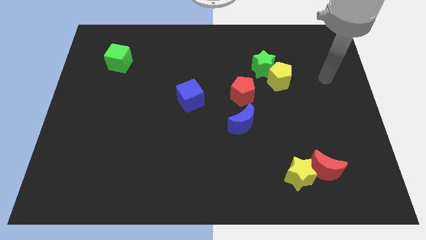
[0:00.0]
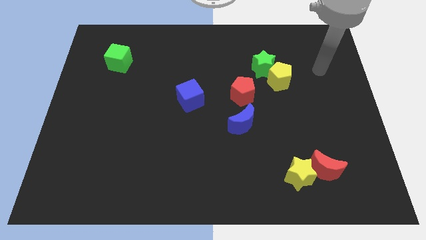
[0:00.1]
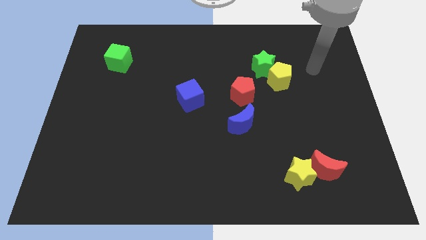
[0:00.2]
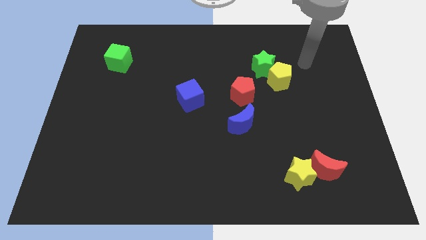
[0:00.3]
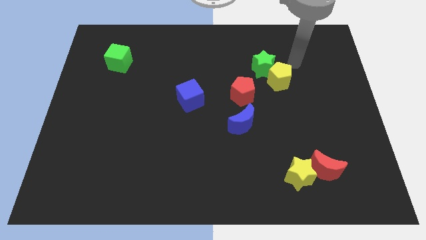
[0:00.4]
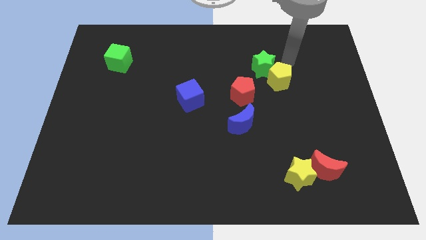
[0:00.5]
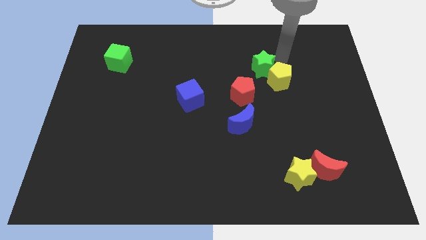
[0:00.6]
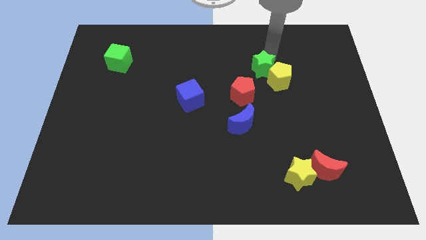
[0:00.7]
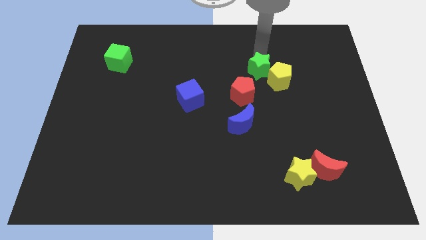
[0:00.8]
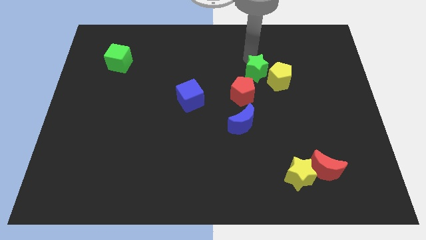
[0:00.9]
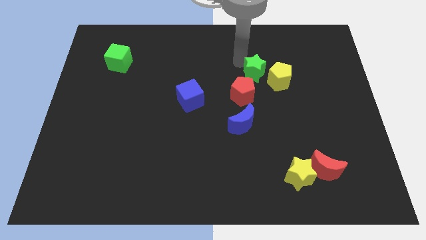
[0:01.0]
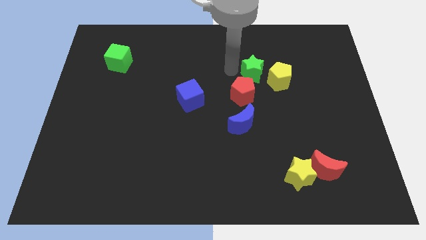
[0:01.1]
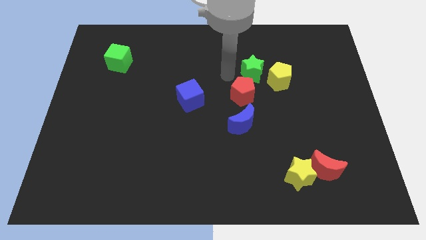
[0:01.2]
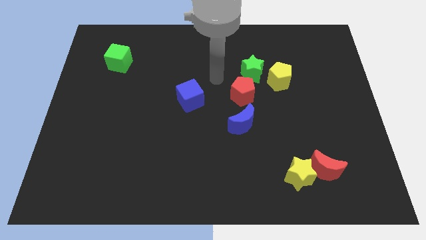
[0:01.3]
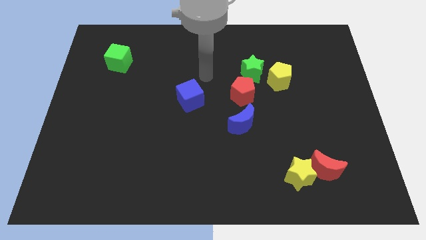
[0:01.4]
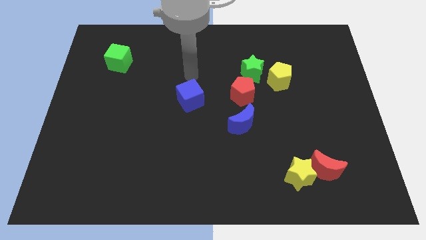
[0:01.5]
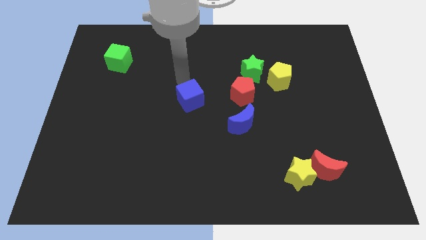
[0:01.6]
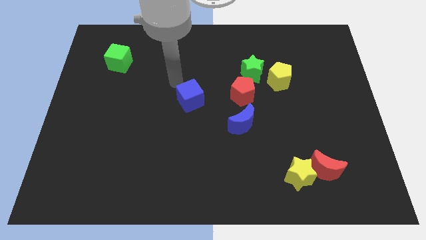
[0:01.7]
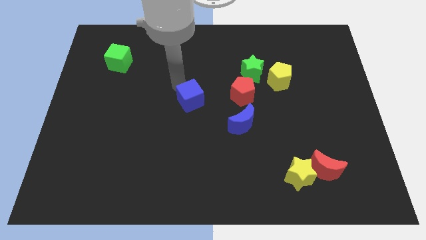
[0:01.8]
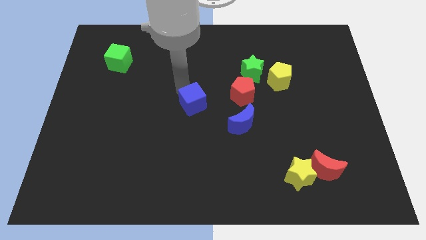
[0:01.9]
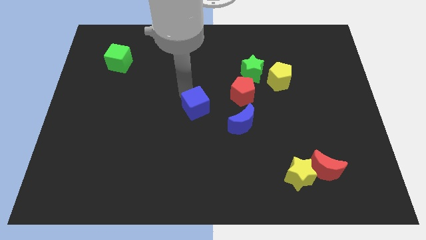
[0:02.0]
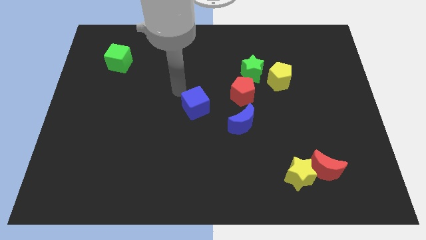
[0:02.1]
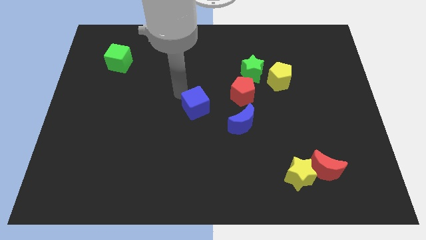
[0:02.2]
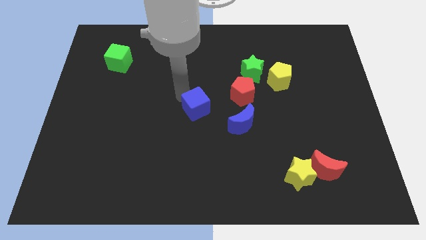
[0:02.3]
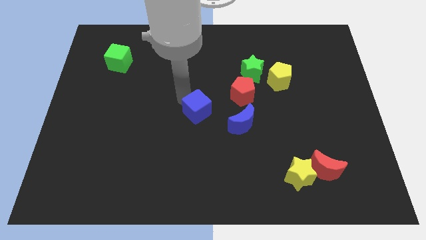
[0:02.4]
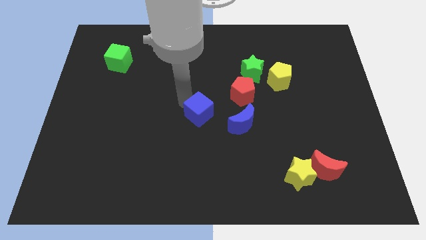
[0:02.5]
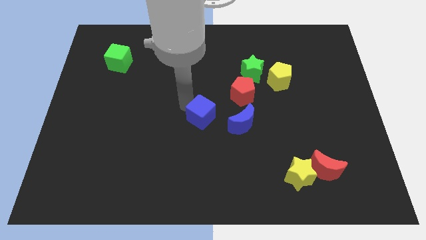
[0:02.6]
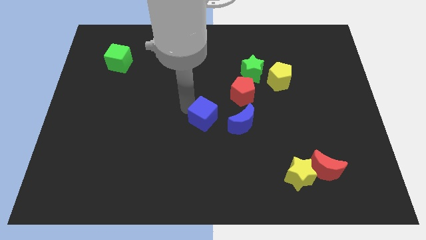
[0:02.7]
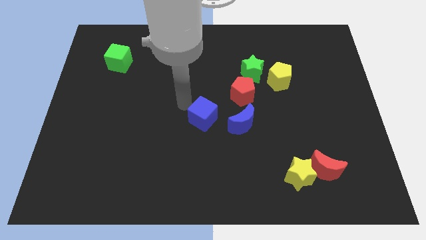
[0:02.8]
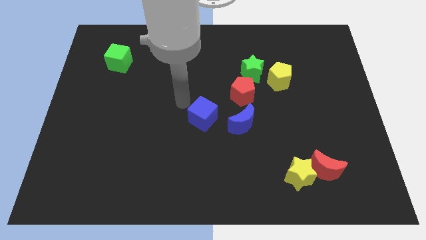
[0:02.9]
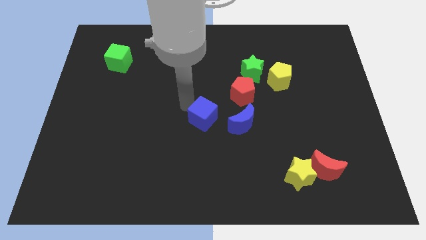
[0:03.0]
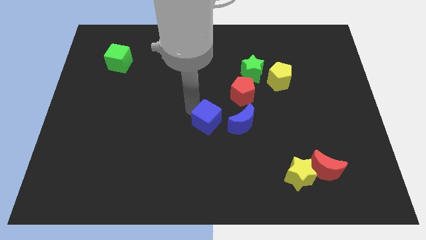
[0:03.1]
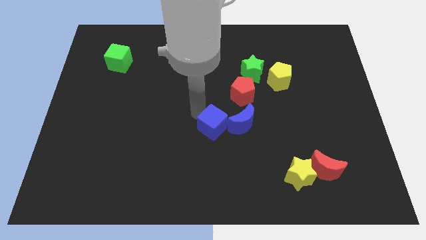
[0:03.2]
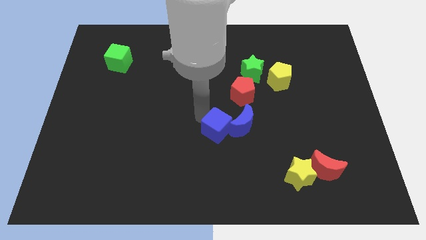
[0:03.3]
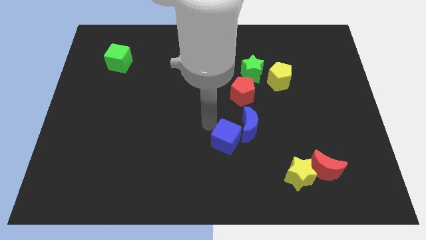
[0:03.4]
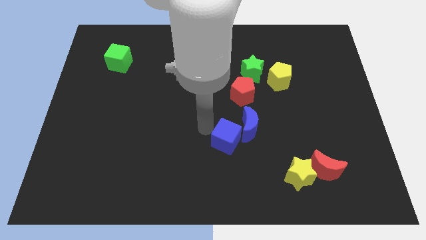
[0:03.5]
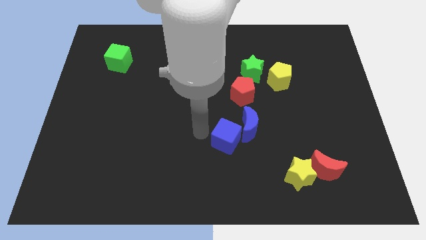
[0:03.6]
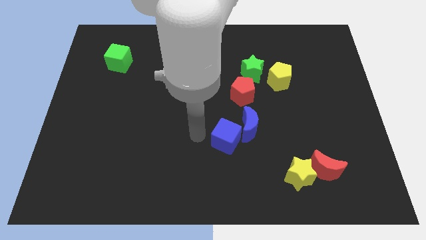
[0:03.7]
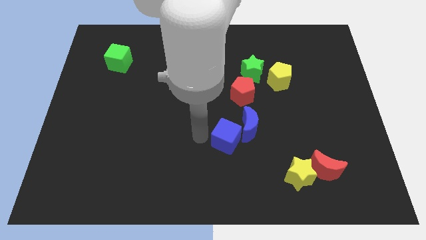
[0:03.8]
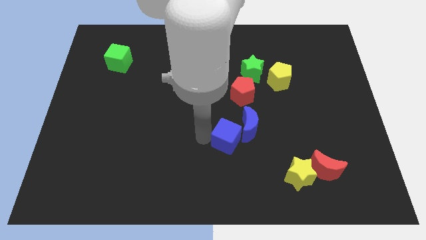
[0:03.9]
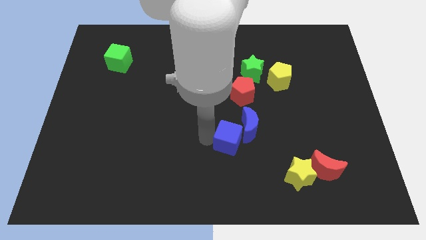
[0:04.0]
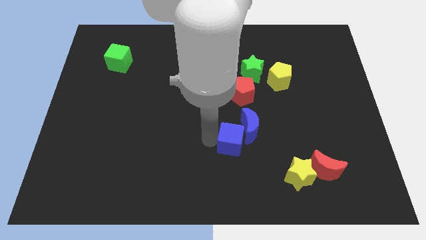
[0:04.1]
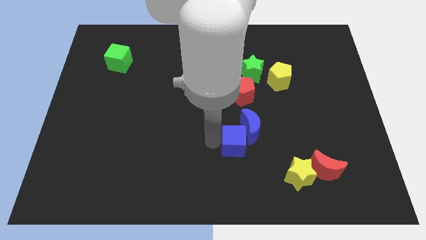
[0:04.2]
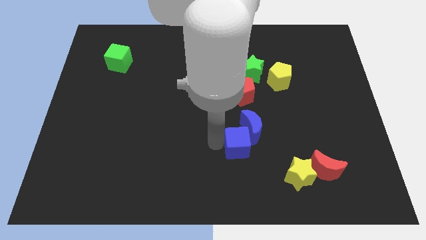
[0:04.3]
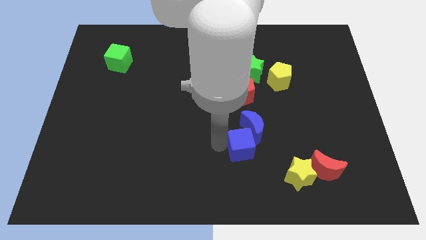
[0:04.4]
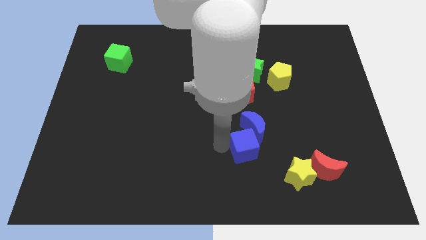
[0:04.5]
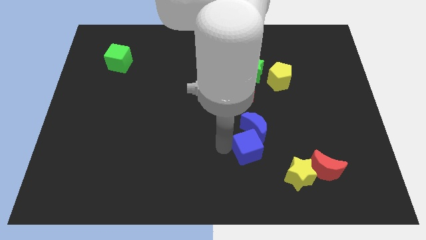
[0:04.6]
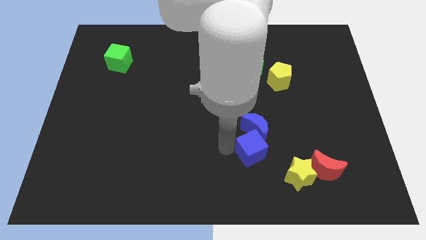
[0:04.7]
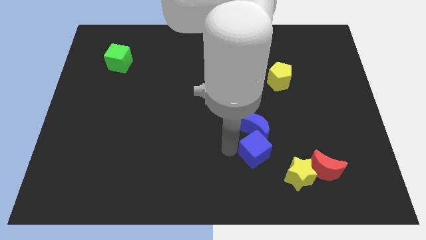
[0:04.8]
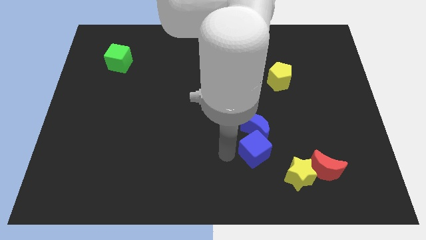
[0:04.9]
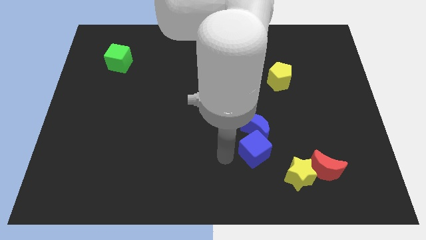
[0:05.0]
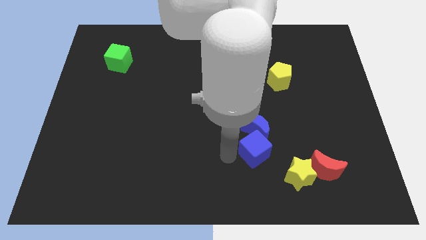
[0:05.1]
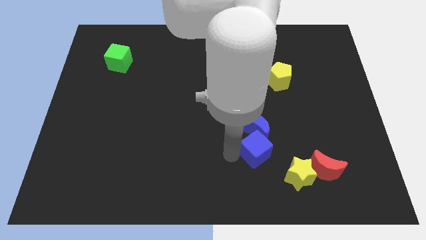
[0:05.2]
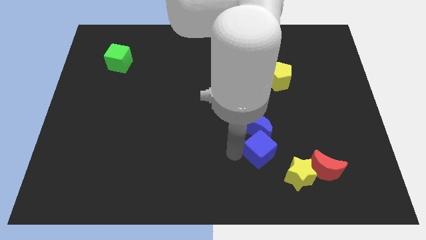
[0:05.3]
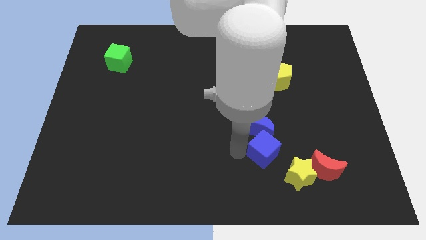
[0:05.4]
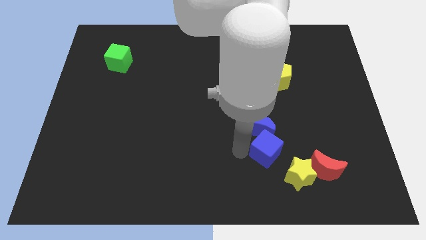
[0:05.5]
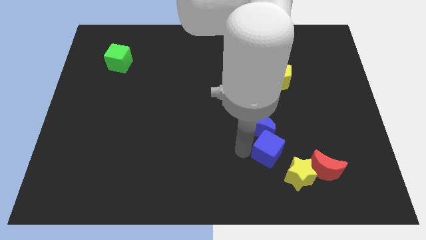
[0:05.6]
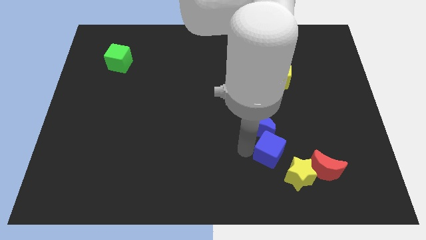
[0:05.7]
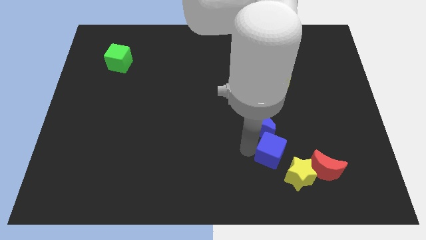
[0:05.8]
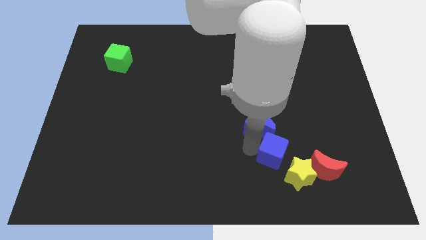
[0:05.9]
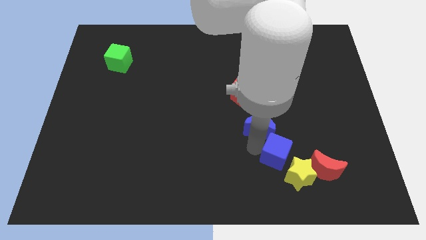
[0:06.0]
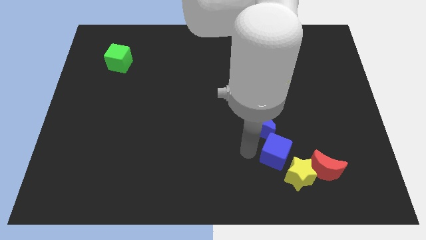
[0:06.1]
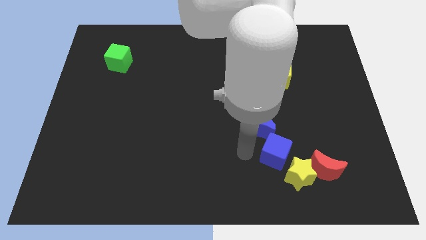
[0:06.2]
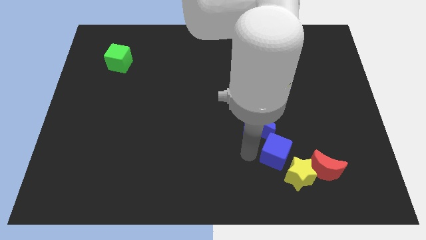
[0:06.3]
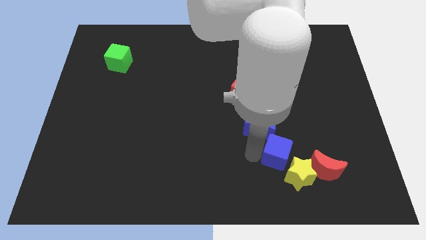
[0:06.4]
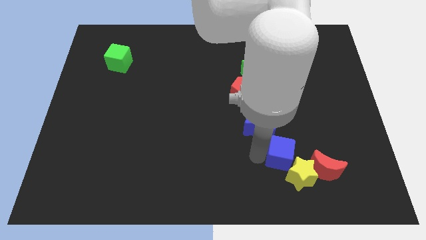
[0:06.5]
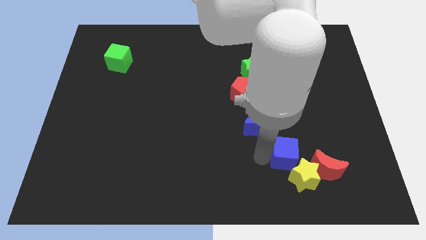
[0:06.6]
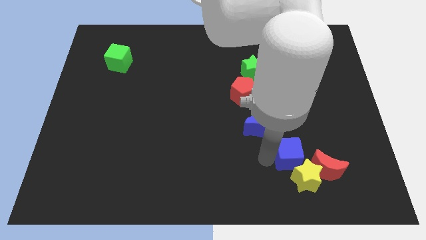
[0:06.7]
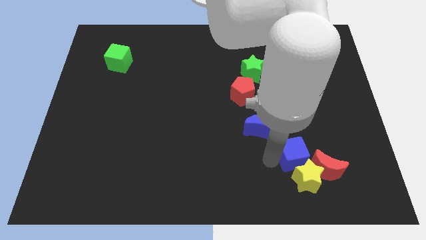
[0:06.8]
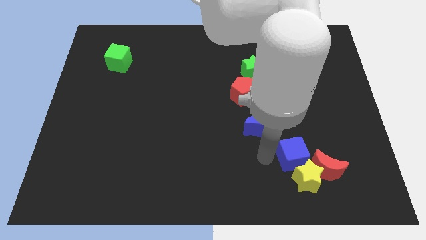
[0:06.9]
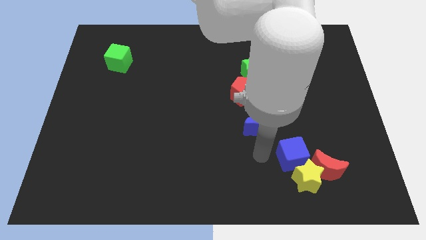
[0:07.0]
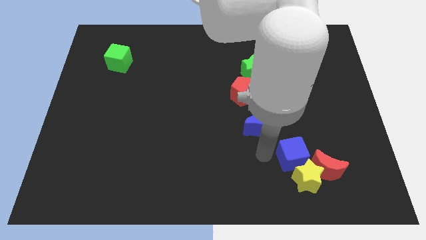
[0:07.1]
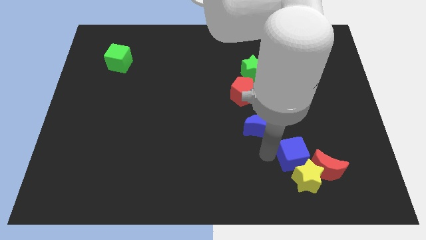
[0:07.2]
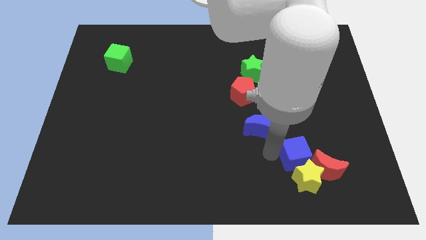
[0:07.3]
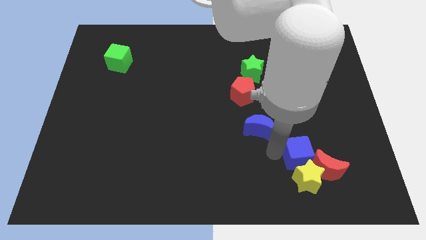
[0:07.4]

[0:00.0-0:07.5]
put the blue cube to the top right of the yellow star
